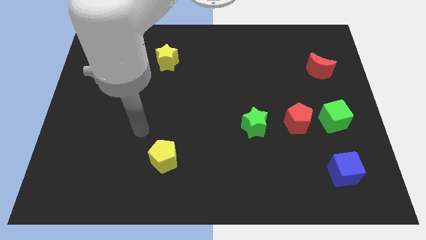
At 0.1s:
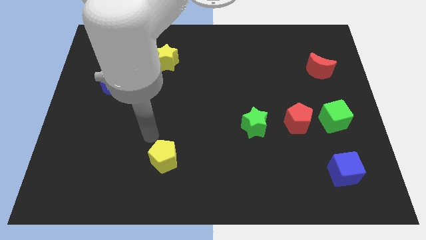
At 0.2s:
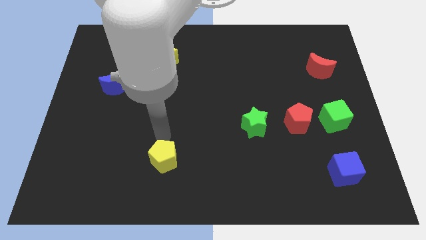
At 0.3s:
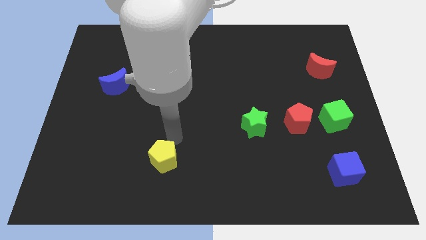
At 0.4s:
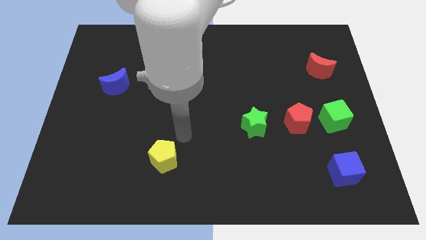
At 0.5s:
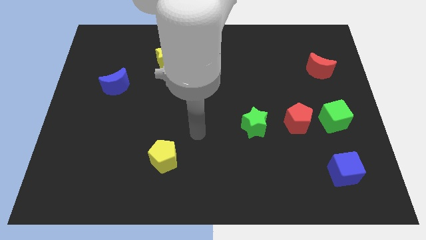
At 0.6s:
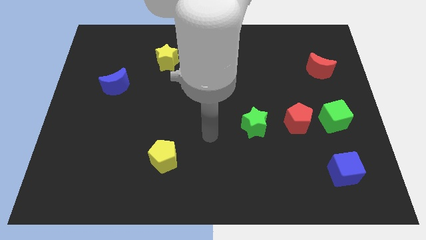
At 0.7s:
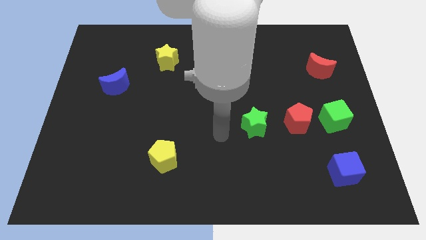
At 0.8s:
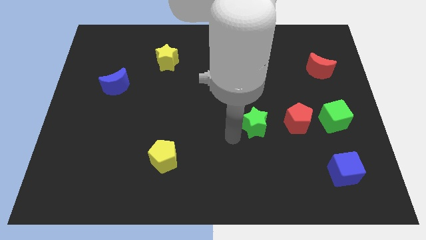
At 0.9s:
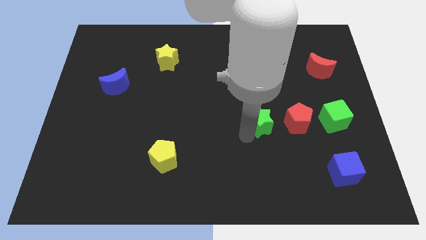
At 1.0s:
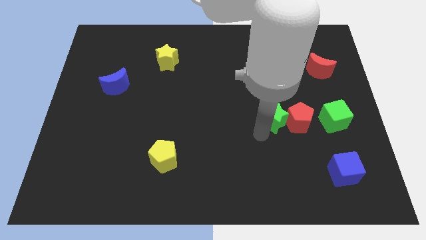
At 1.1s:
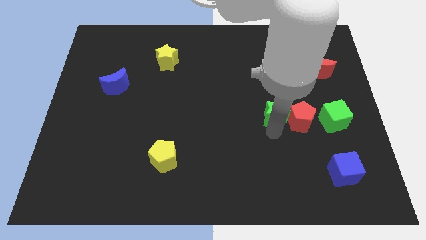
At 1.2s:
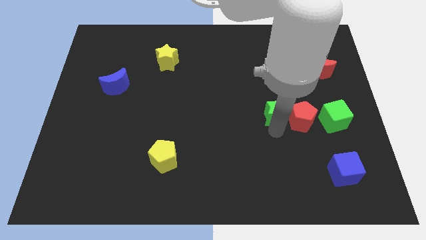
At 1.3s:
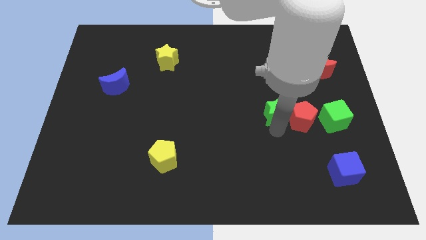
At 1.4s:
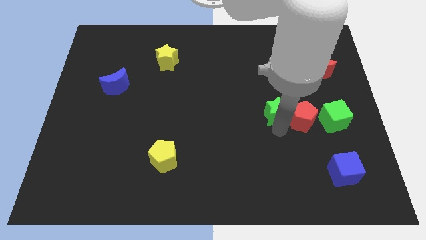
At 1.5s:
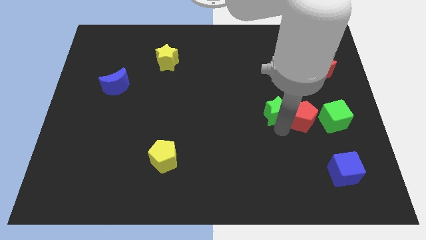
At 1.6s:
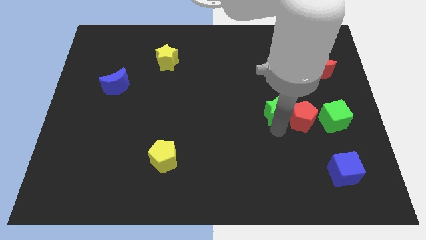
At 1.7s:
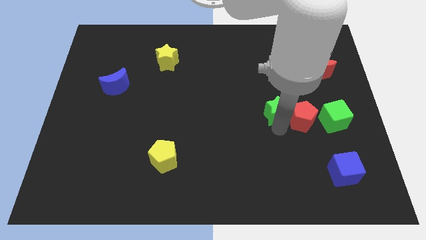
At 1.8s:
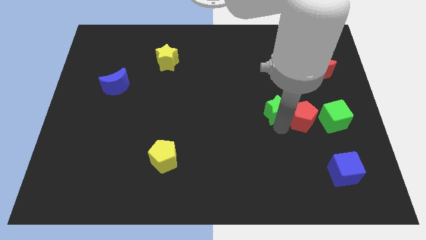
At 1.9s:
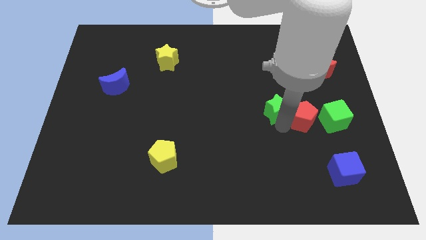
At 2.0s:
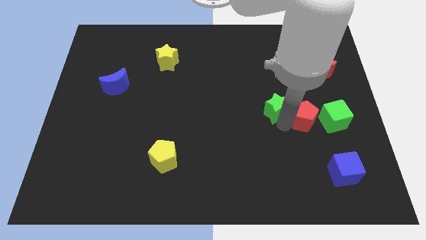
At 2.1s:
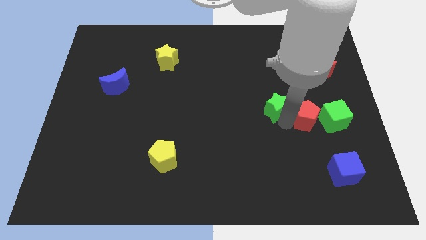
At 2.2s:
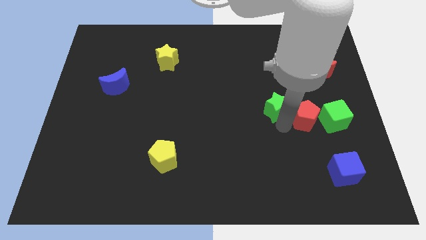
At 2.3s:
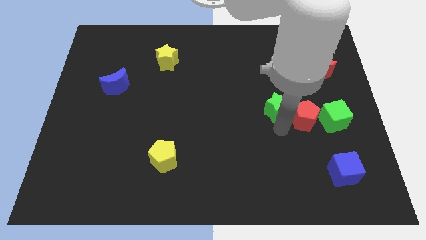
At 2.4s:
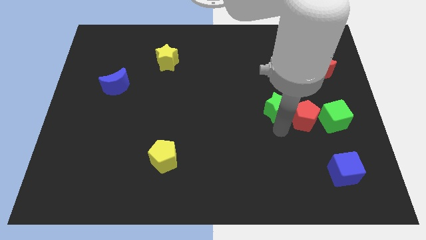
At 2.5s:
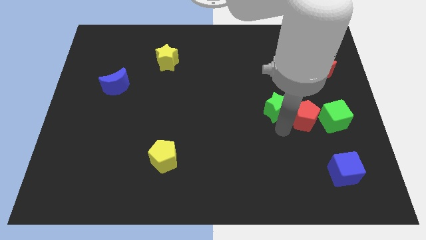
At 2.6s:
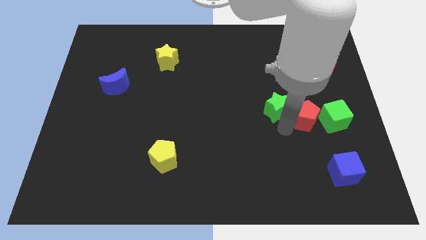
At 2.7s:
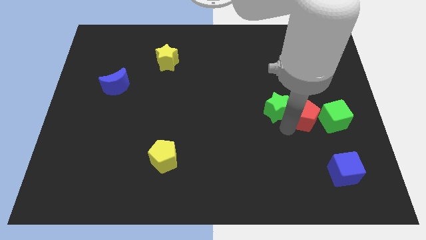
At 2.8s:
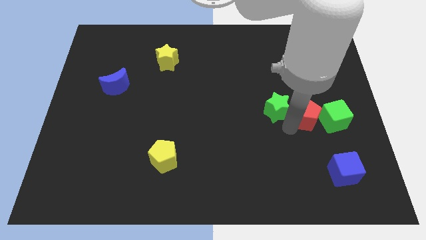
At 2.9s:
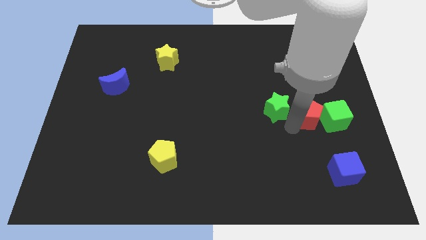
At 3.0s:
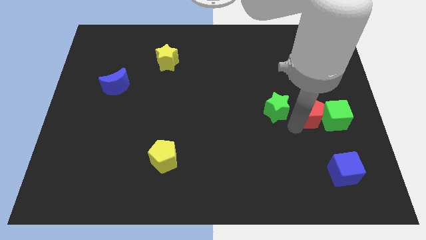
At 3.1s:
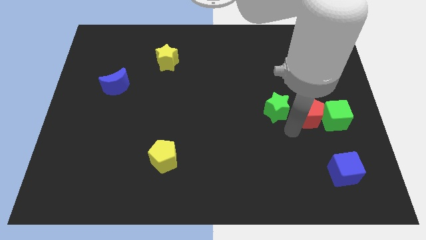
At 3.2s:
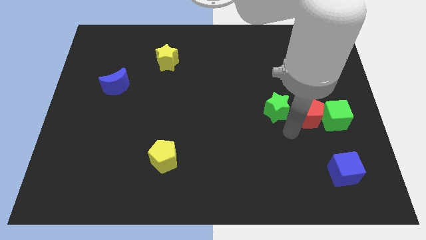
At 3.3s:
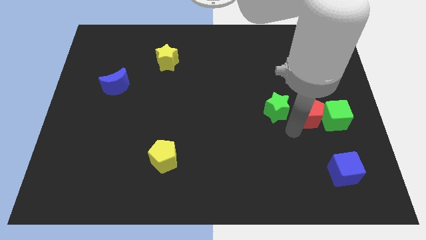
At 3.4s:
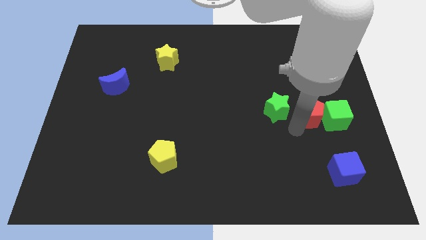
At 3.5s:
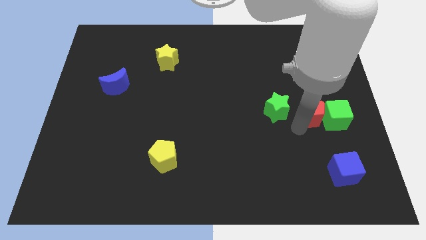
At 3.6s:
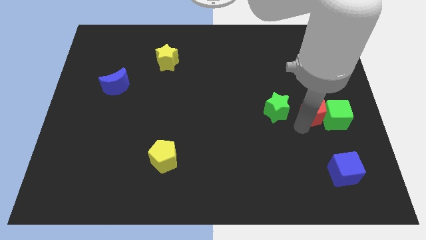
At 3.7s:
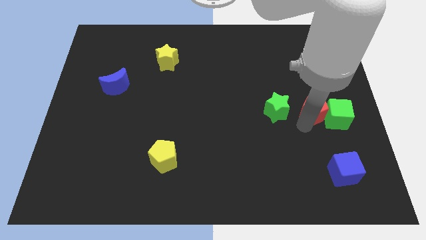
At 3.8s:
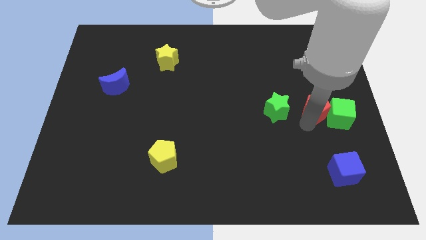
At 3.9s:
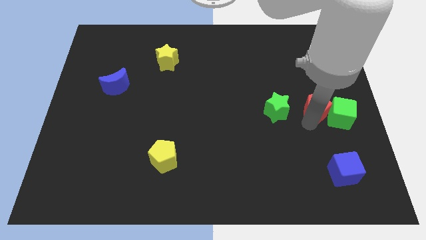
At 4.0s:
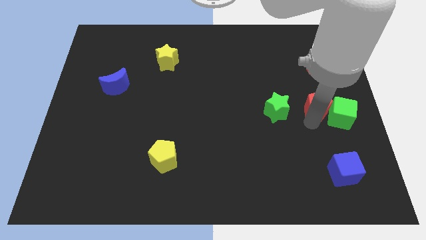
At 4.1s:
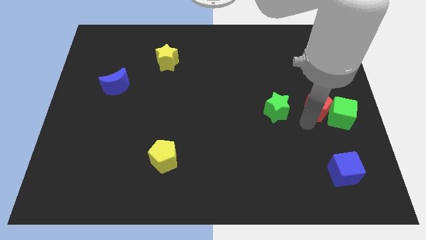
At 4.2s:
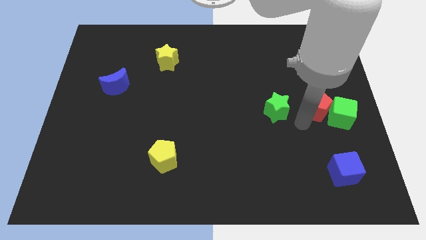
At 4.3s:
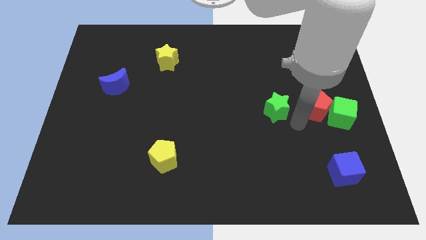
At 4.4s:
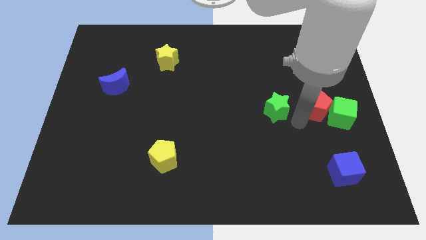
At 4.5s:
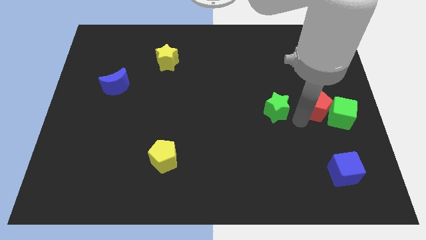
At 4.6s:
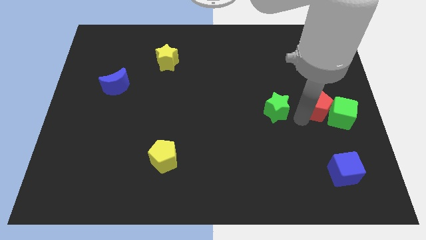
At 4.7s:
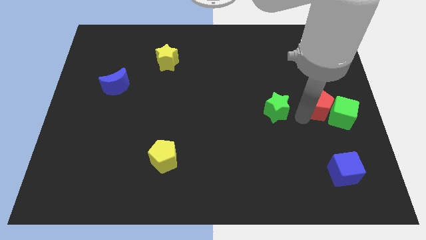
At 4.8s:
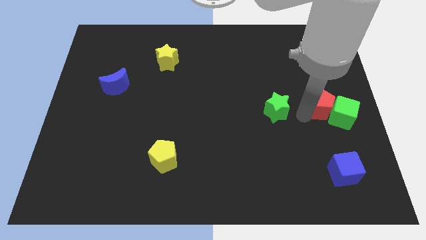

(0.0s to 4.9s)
slide the red pentagon to the center right

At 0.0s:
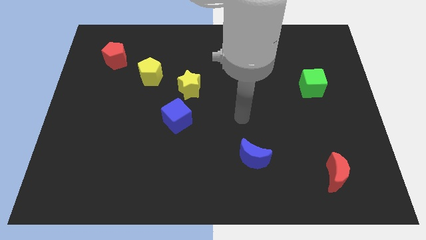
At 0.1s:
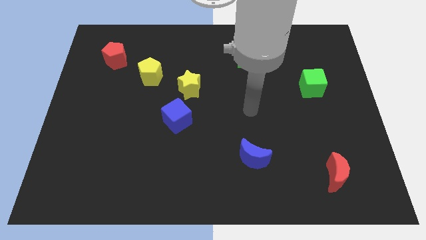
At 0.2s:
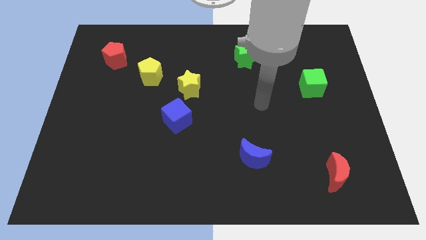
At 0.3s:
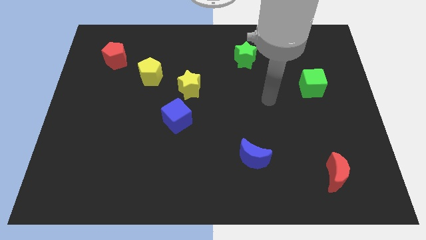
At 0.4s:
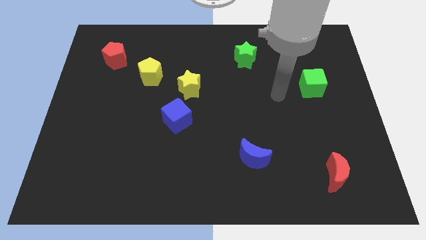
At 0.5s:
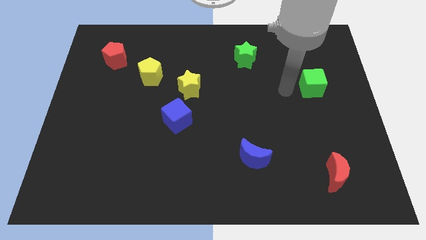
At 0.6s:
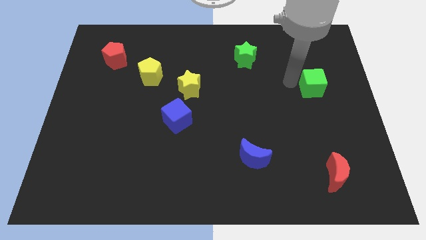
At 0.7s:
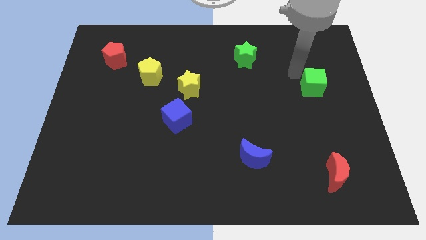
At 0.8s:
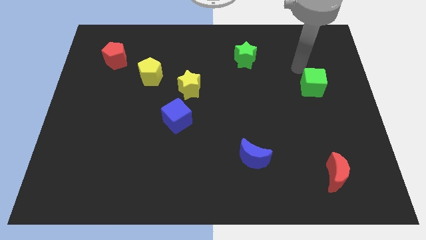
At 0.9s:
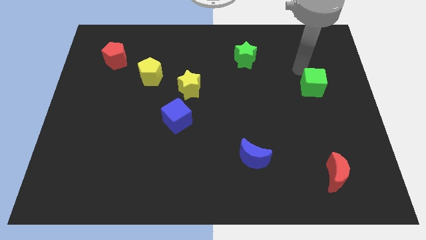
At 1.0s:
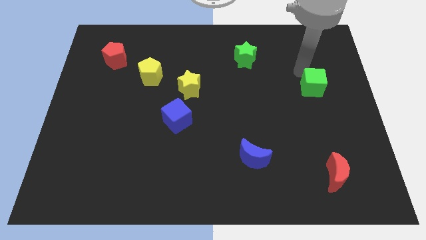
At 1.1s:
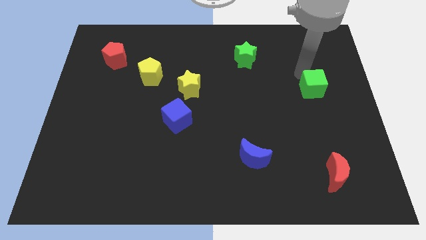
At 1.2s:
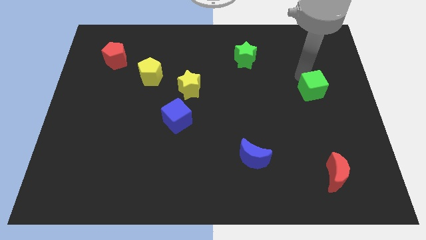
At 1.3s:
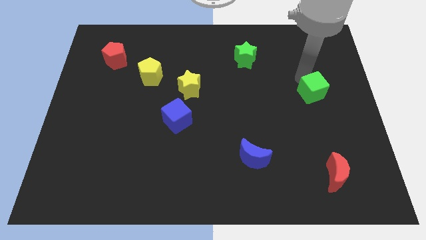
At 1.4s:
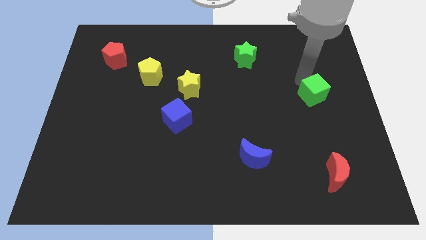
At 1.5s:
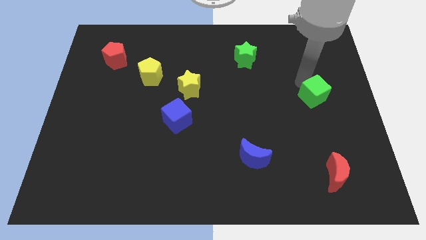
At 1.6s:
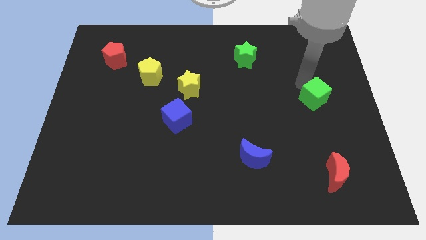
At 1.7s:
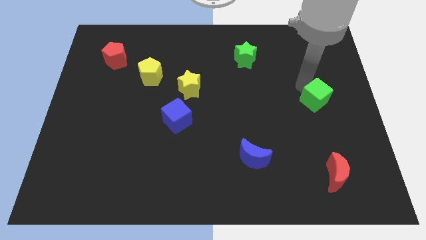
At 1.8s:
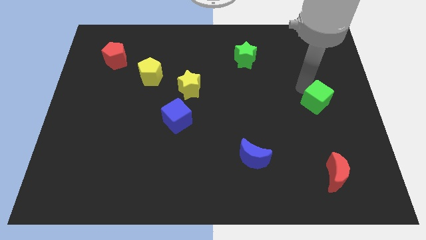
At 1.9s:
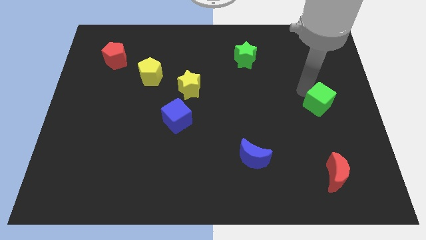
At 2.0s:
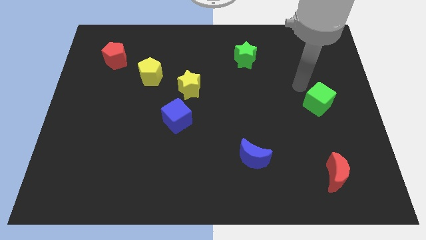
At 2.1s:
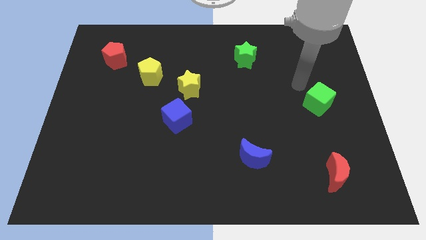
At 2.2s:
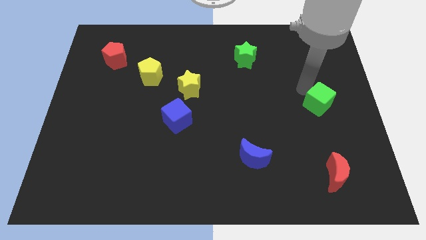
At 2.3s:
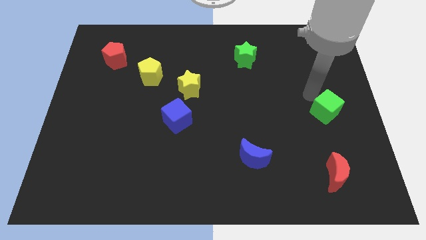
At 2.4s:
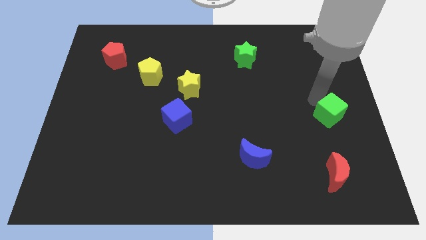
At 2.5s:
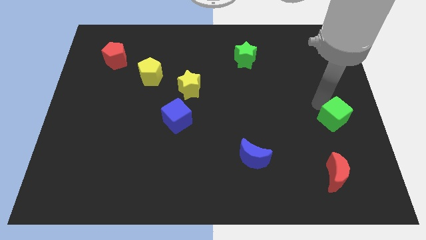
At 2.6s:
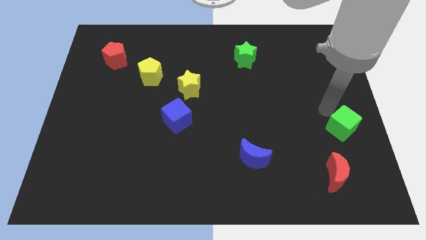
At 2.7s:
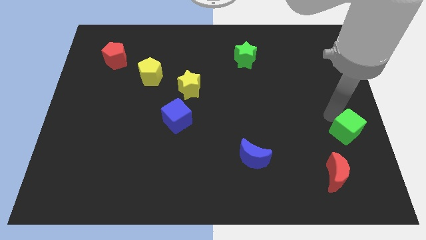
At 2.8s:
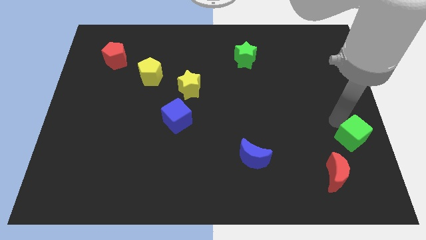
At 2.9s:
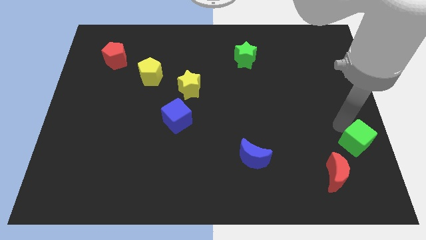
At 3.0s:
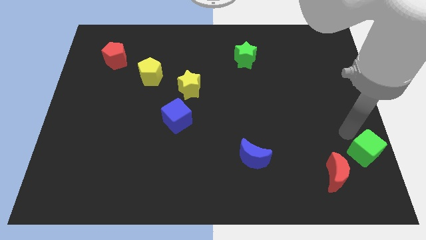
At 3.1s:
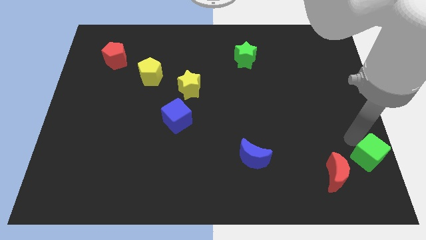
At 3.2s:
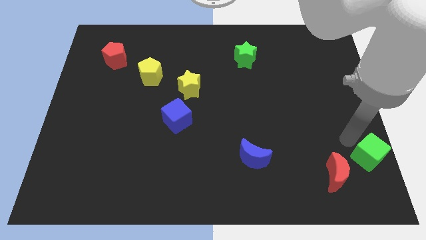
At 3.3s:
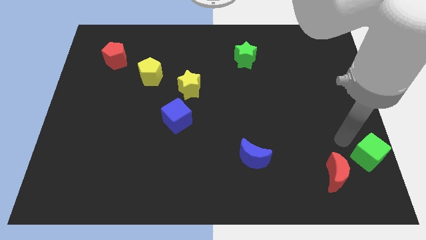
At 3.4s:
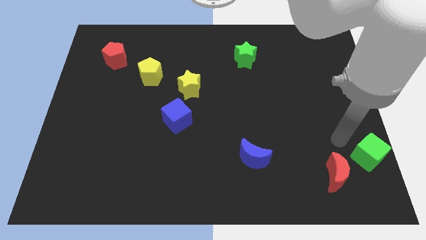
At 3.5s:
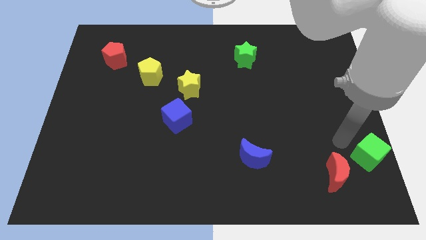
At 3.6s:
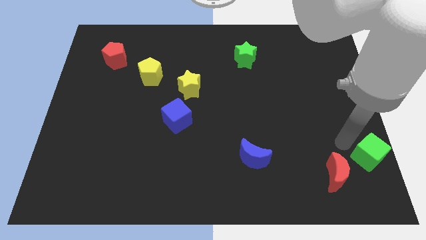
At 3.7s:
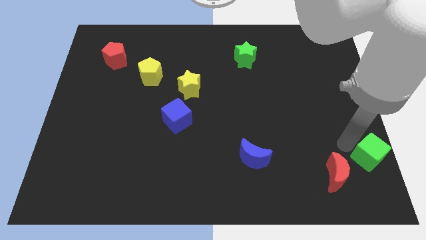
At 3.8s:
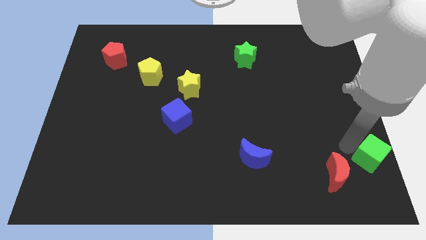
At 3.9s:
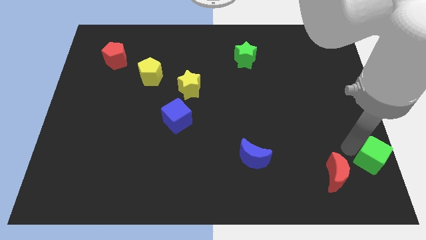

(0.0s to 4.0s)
move the green cube to the bottom right
